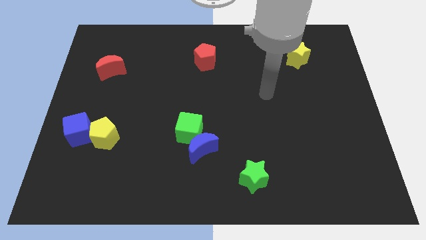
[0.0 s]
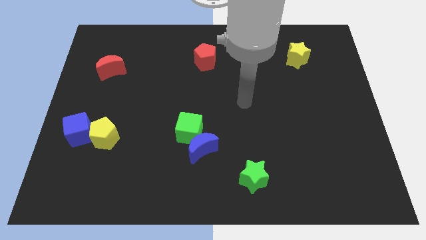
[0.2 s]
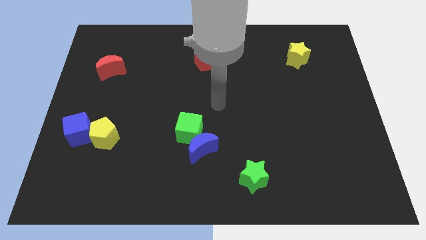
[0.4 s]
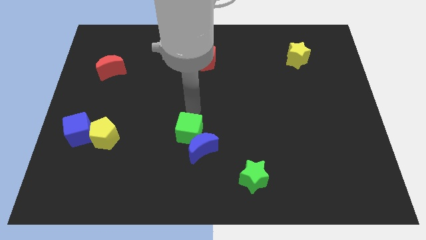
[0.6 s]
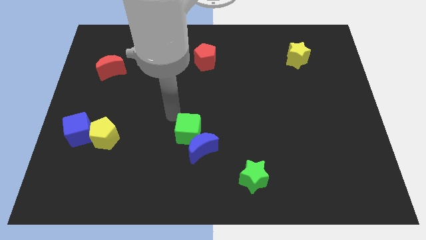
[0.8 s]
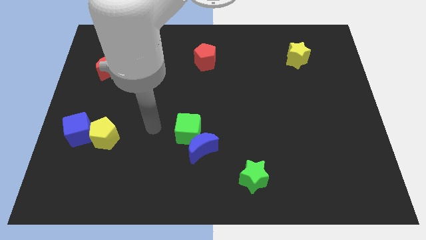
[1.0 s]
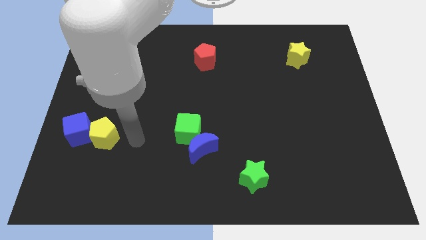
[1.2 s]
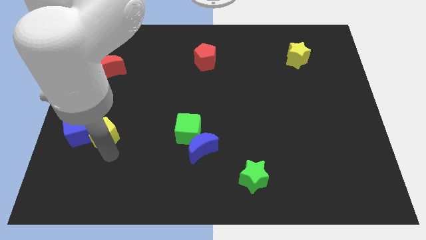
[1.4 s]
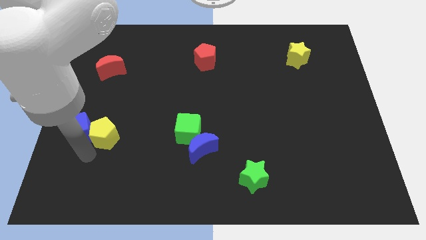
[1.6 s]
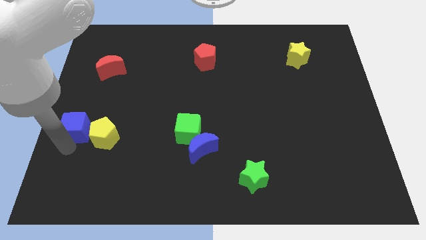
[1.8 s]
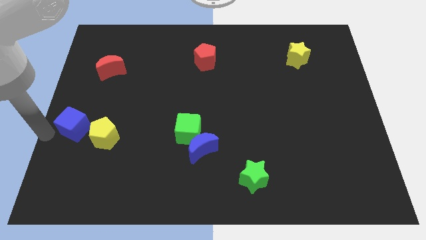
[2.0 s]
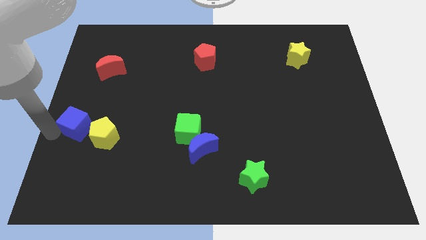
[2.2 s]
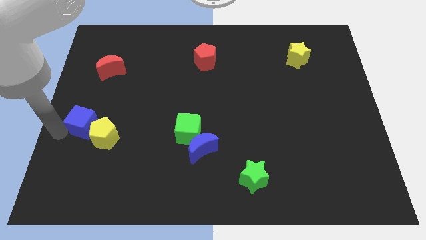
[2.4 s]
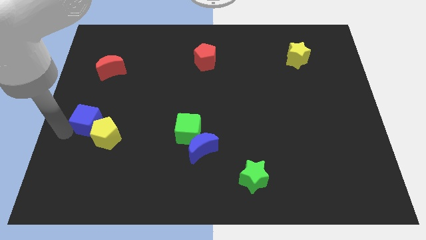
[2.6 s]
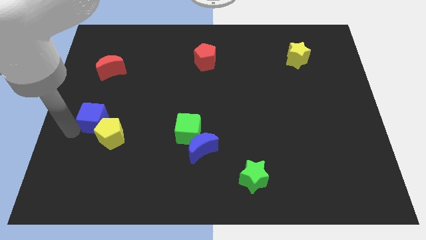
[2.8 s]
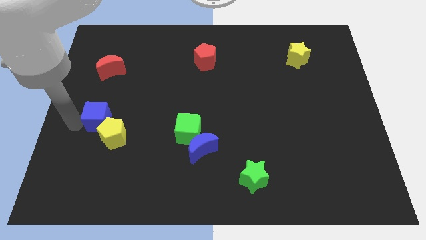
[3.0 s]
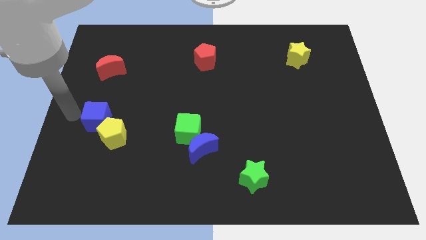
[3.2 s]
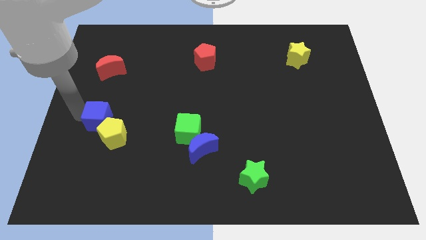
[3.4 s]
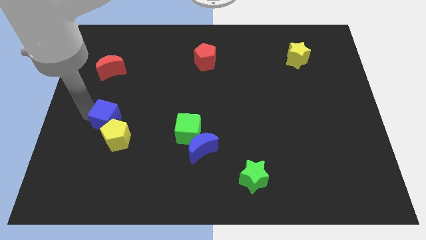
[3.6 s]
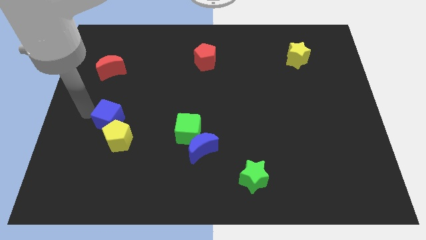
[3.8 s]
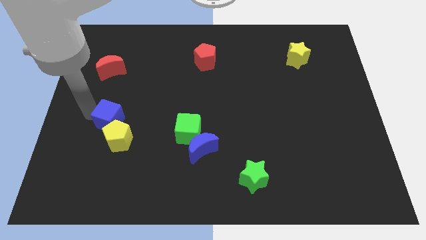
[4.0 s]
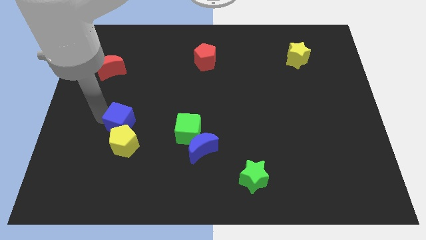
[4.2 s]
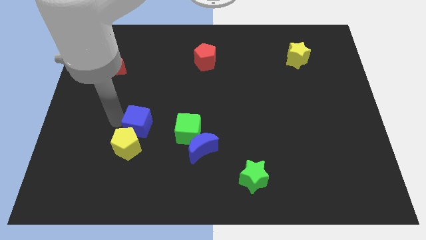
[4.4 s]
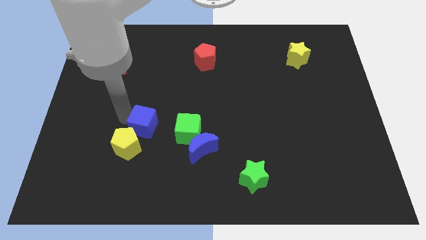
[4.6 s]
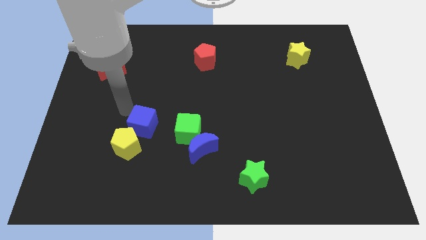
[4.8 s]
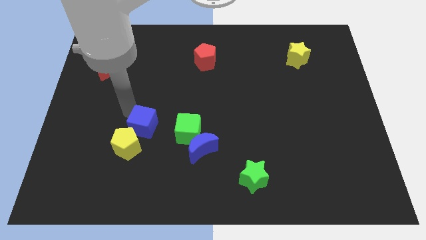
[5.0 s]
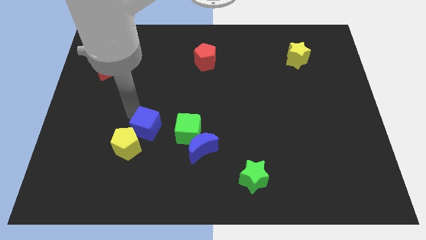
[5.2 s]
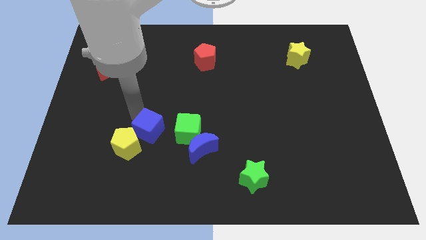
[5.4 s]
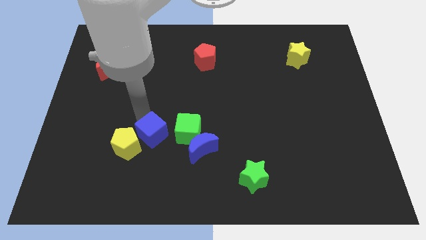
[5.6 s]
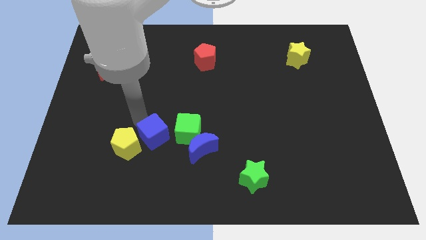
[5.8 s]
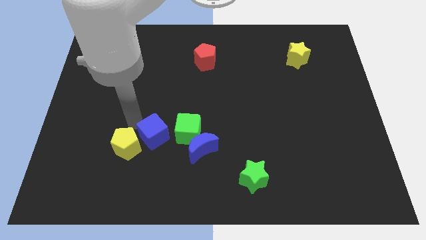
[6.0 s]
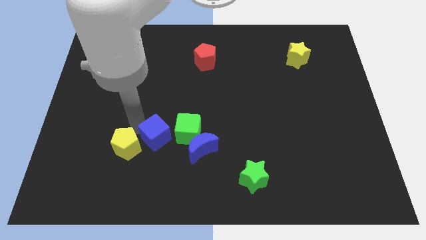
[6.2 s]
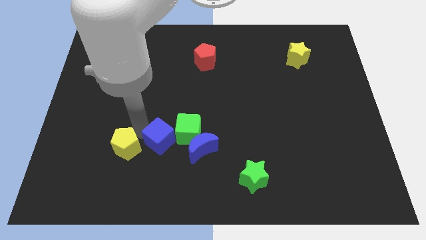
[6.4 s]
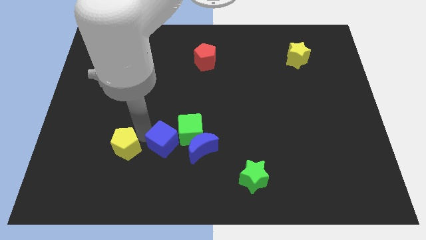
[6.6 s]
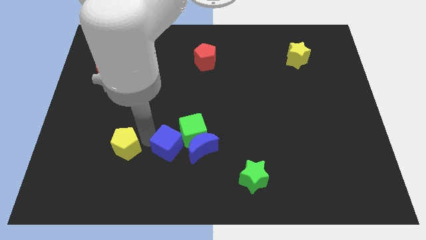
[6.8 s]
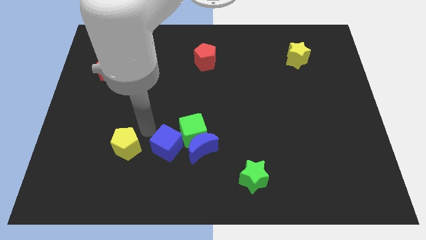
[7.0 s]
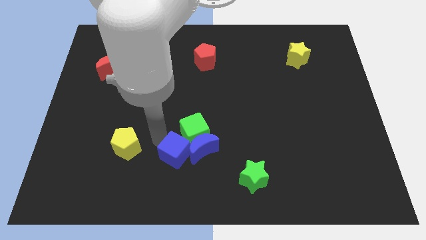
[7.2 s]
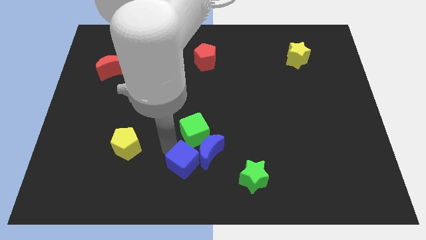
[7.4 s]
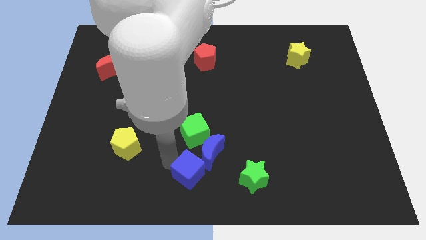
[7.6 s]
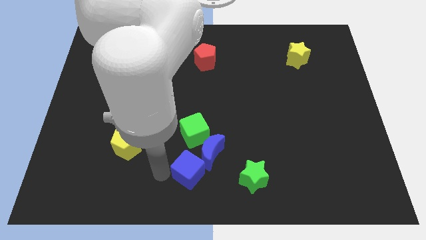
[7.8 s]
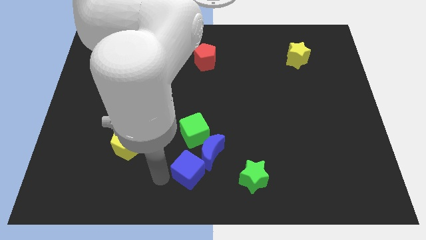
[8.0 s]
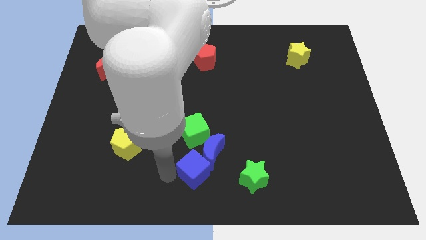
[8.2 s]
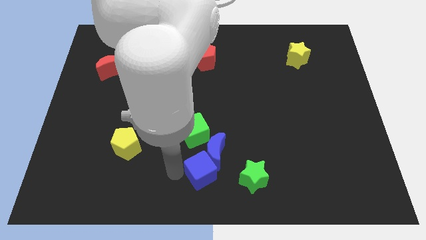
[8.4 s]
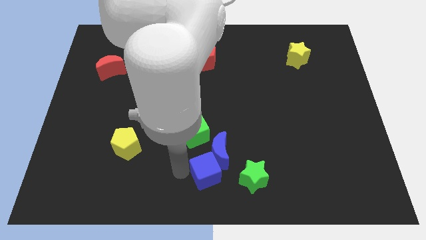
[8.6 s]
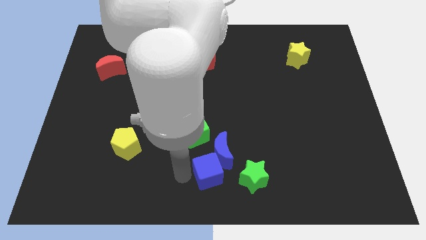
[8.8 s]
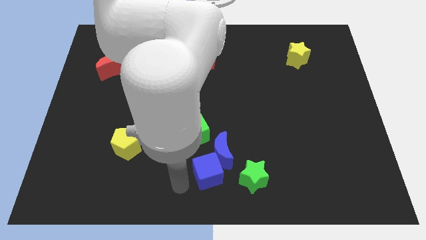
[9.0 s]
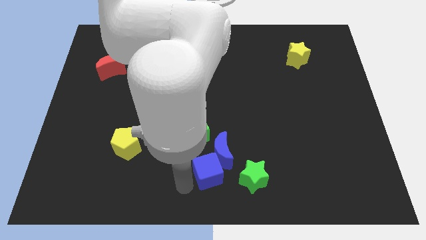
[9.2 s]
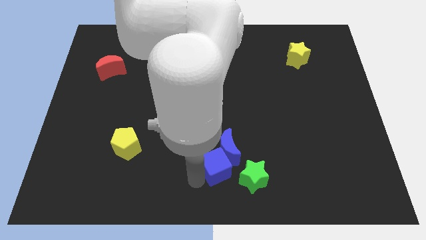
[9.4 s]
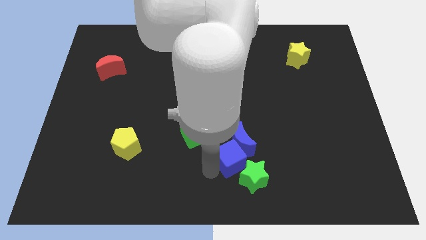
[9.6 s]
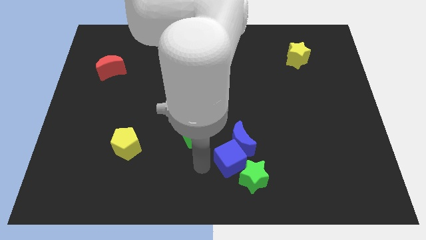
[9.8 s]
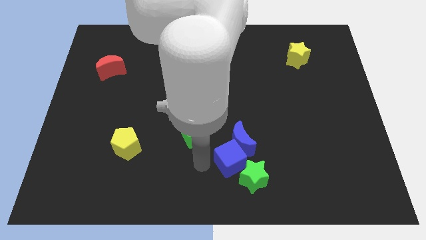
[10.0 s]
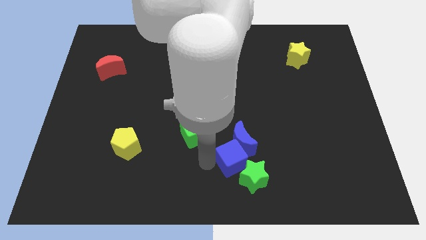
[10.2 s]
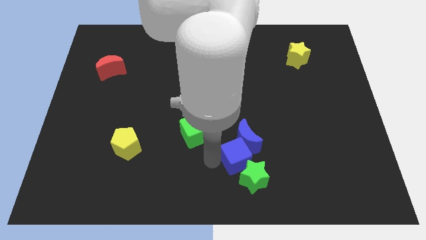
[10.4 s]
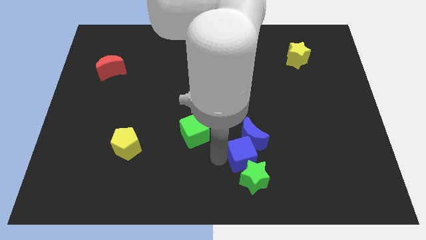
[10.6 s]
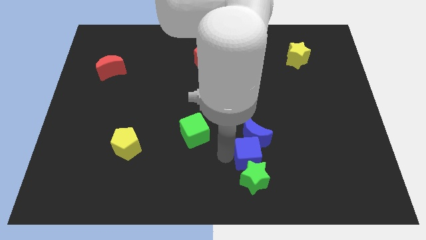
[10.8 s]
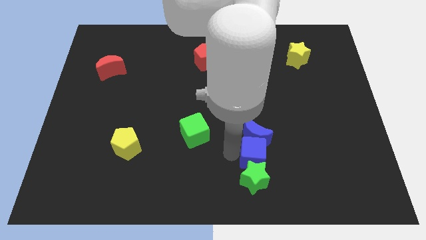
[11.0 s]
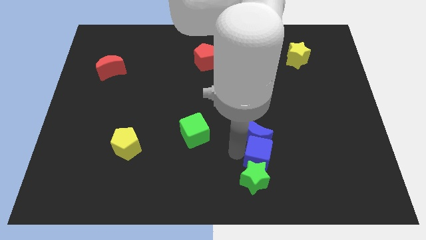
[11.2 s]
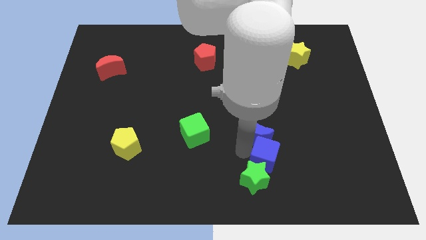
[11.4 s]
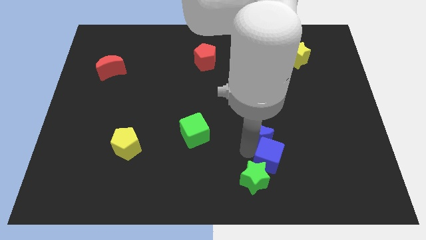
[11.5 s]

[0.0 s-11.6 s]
slide the blue cube just right of the green star

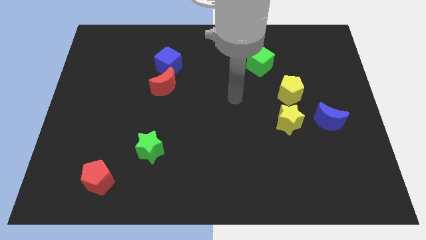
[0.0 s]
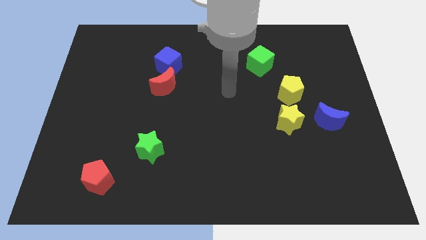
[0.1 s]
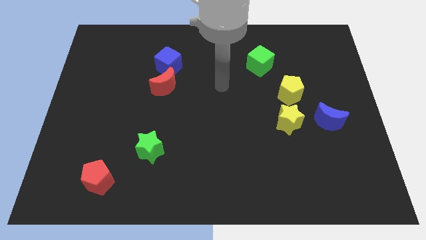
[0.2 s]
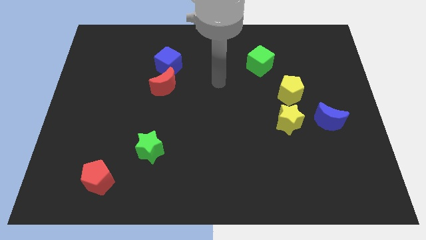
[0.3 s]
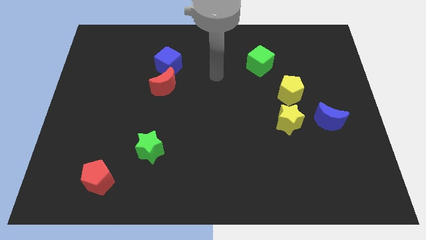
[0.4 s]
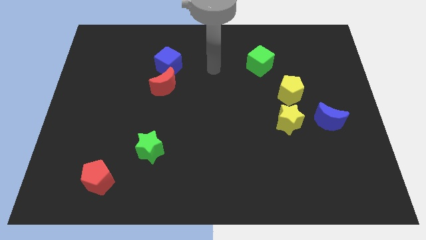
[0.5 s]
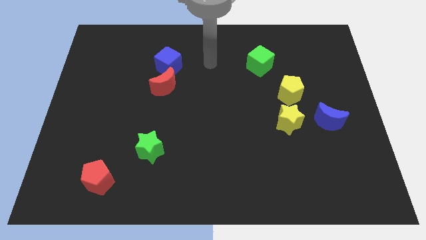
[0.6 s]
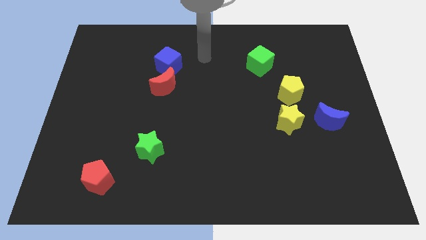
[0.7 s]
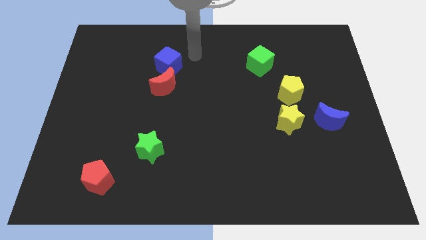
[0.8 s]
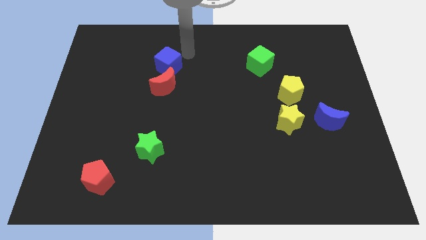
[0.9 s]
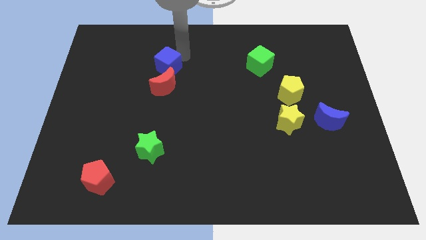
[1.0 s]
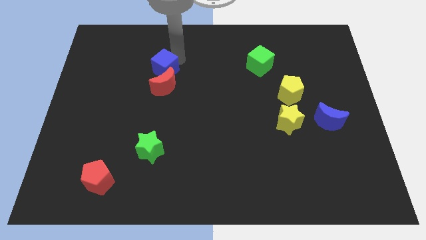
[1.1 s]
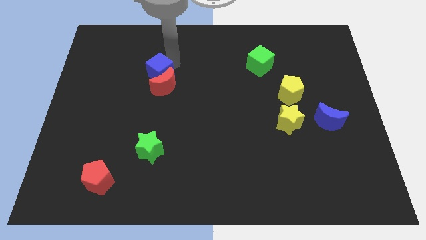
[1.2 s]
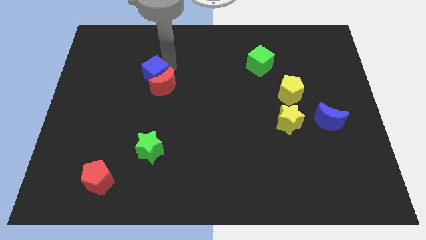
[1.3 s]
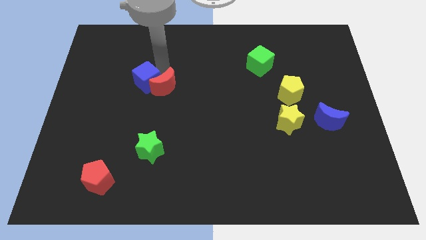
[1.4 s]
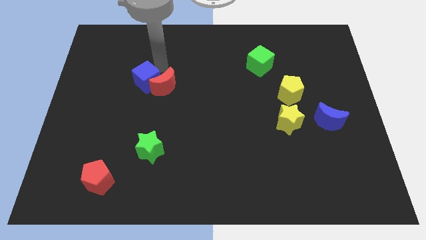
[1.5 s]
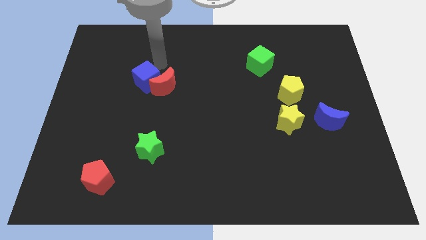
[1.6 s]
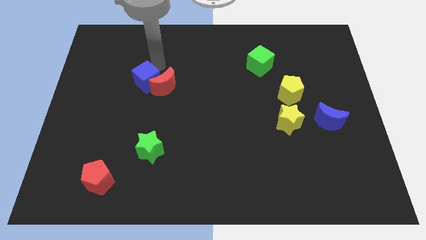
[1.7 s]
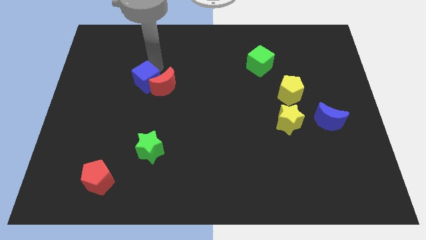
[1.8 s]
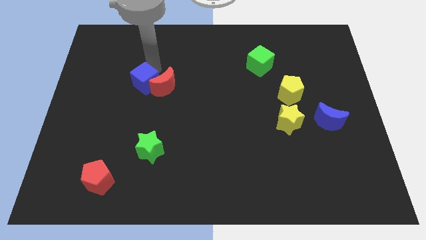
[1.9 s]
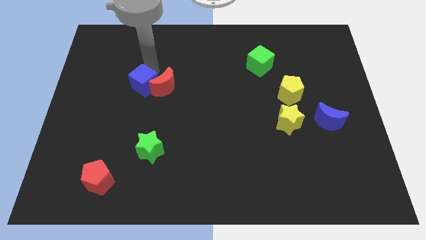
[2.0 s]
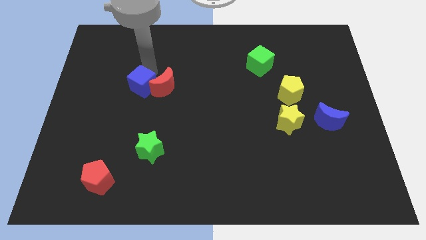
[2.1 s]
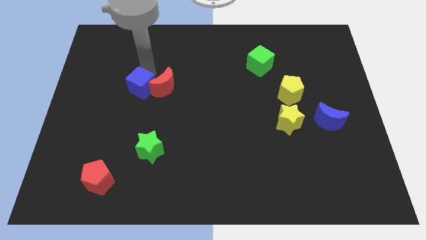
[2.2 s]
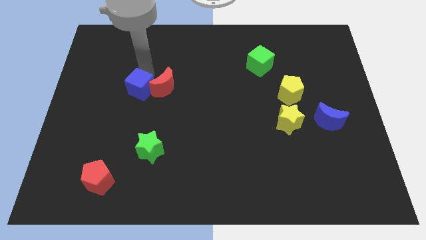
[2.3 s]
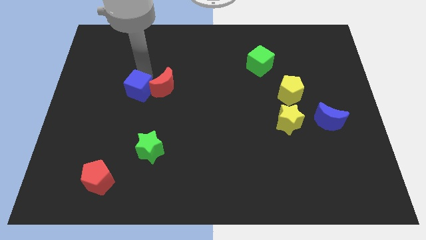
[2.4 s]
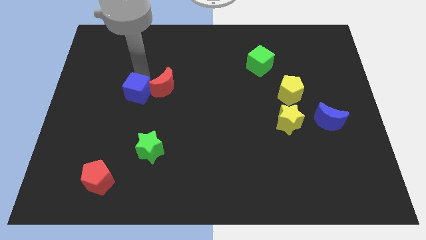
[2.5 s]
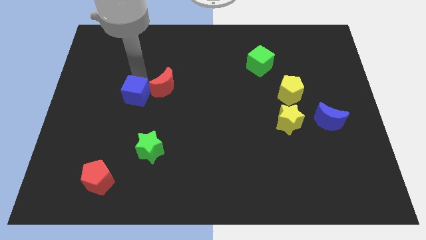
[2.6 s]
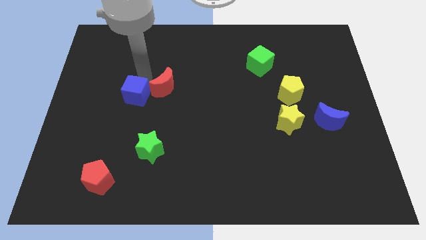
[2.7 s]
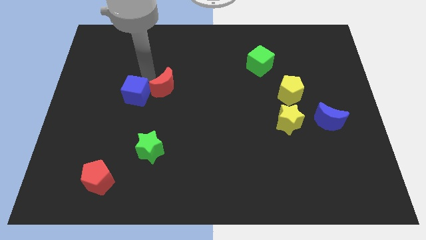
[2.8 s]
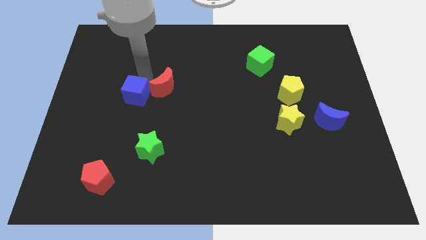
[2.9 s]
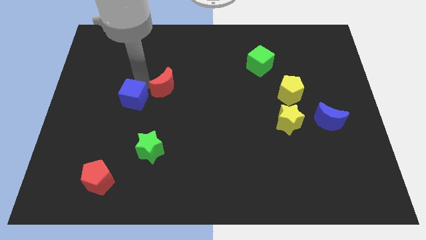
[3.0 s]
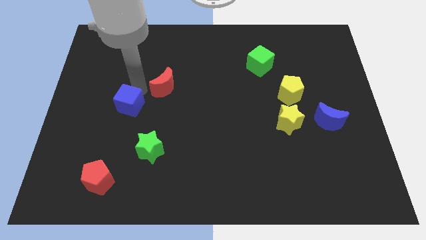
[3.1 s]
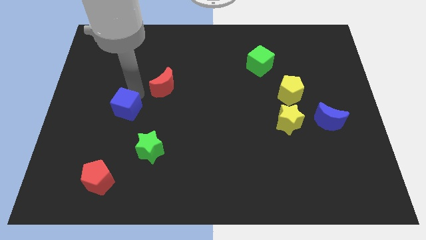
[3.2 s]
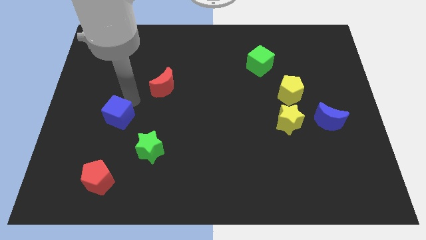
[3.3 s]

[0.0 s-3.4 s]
slide the blue cube to the top of the red pentagon
